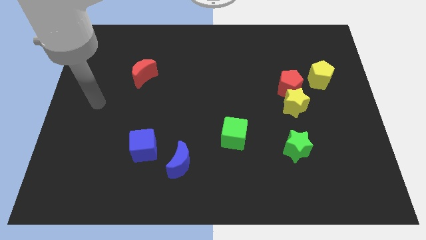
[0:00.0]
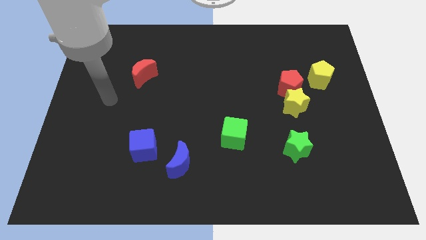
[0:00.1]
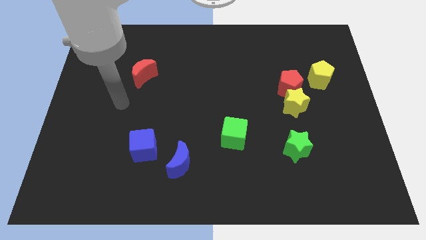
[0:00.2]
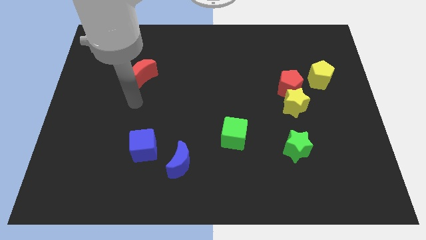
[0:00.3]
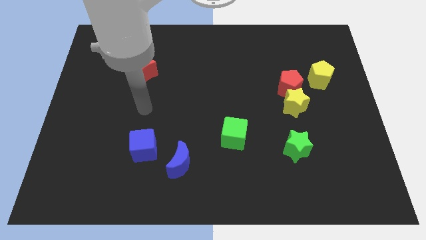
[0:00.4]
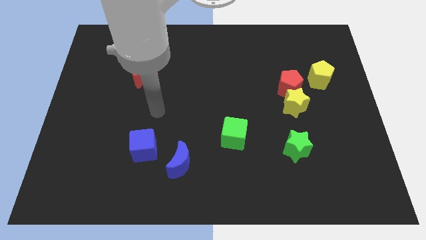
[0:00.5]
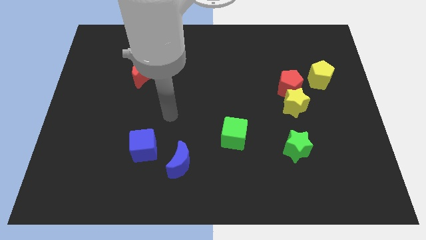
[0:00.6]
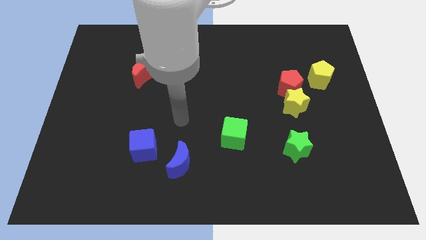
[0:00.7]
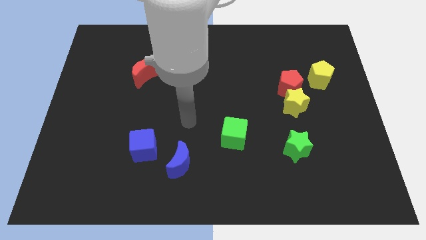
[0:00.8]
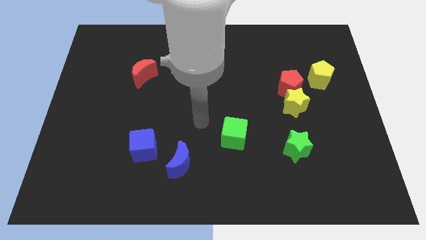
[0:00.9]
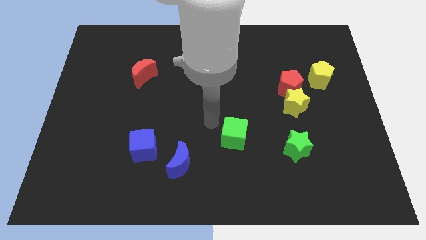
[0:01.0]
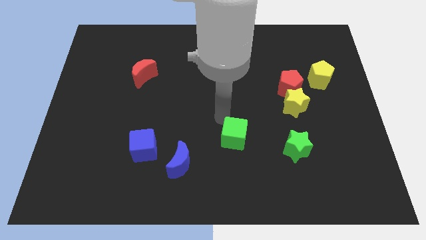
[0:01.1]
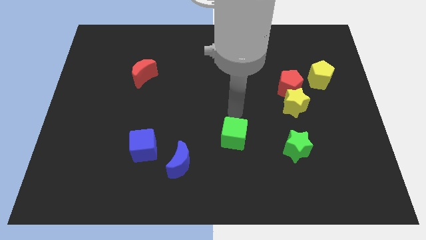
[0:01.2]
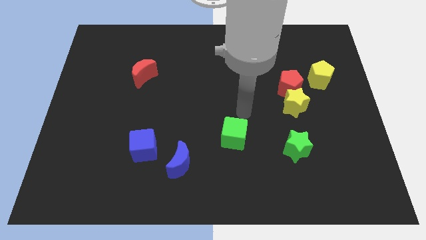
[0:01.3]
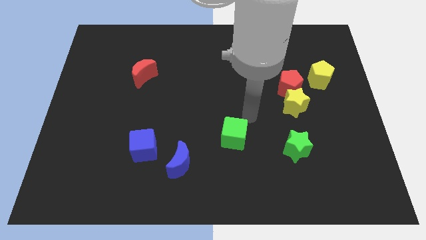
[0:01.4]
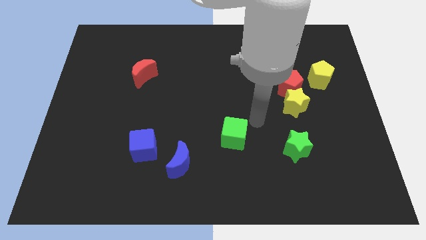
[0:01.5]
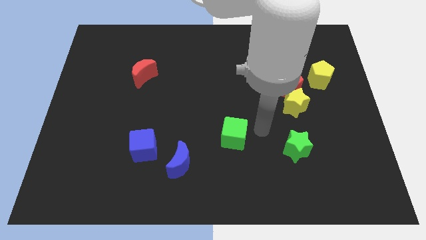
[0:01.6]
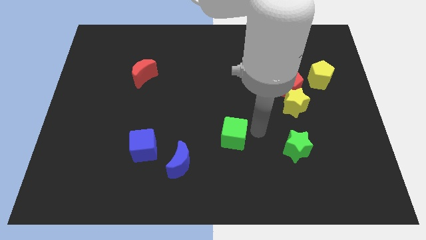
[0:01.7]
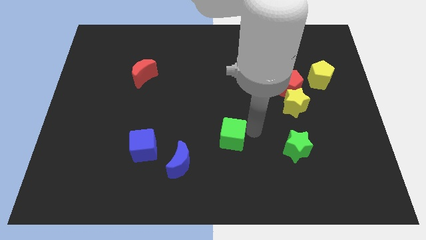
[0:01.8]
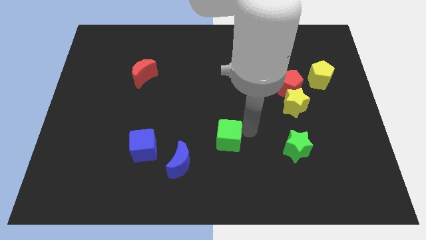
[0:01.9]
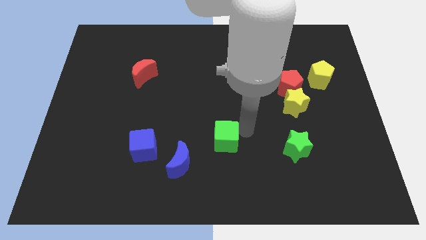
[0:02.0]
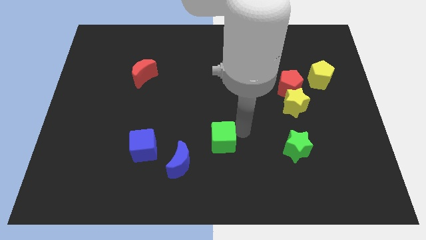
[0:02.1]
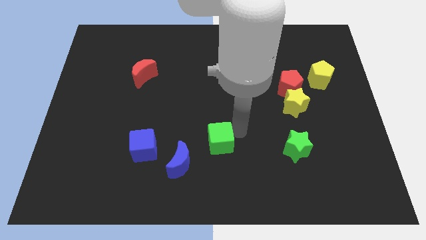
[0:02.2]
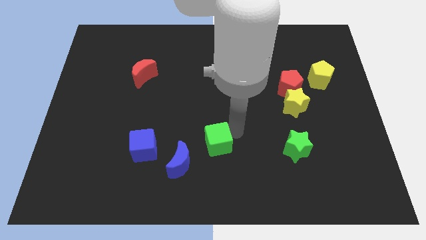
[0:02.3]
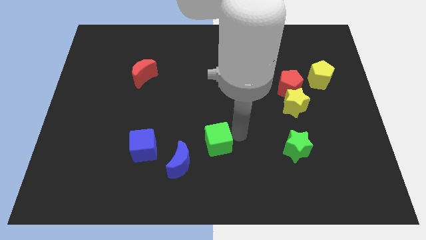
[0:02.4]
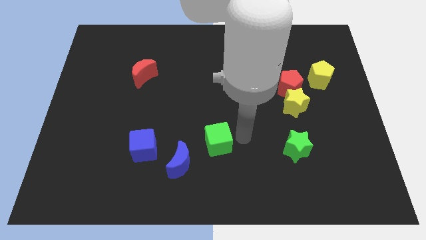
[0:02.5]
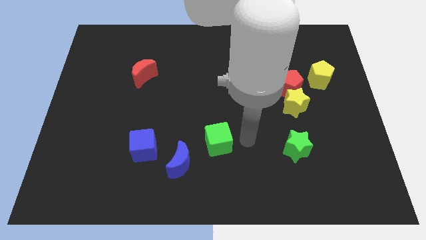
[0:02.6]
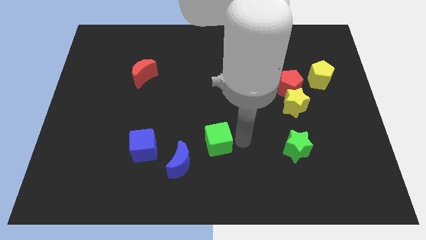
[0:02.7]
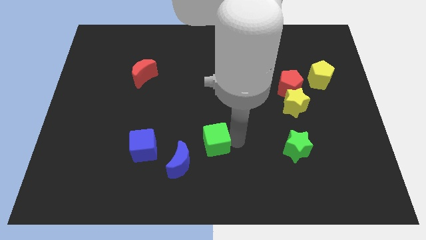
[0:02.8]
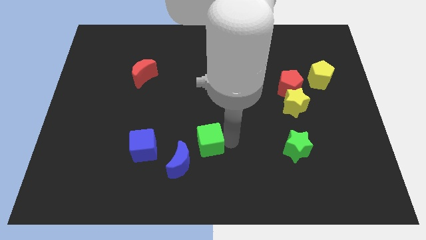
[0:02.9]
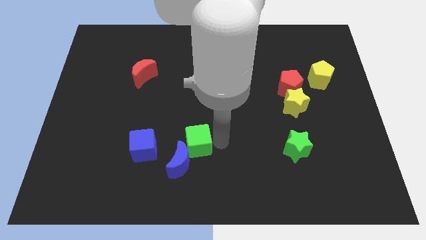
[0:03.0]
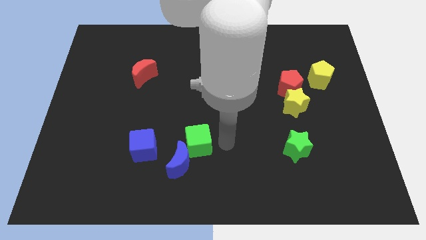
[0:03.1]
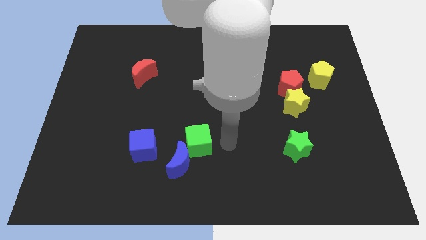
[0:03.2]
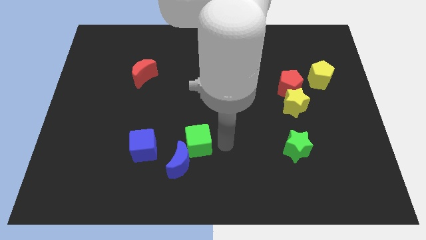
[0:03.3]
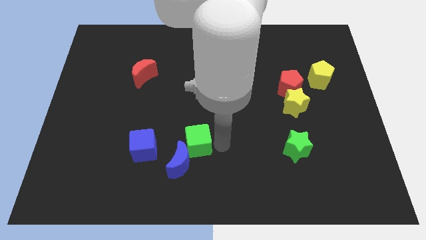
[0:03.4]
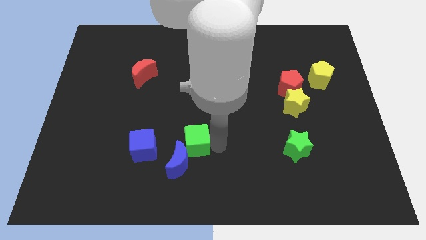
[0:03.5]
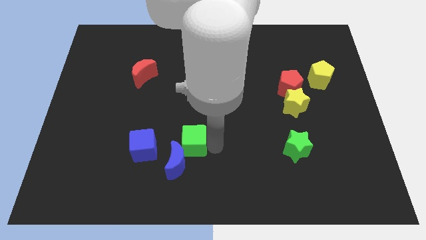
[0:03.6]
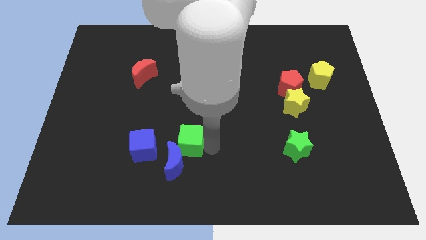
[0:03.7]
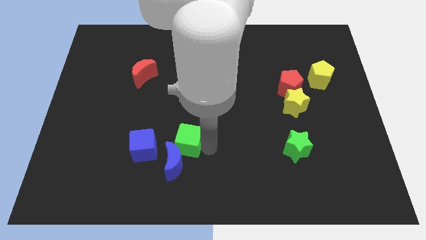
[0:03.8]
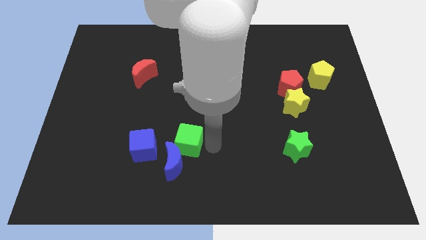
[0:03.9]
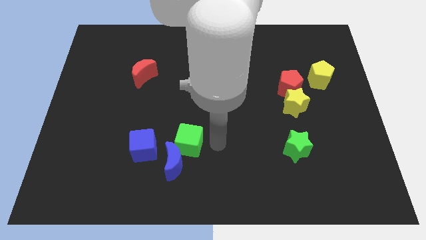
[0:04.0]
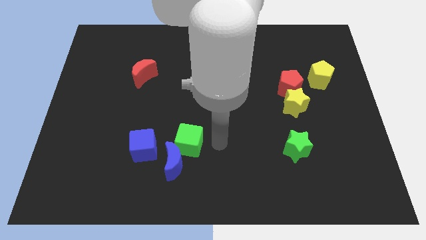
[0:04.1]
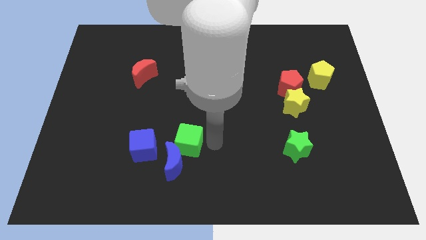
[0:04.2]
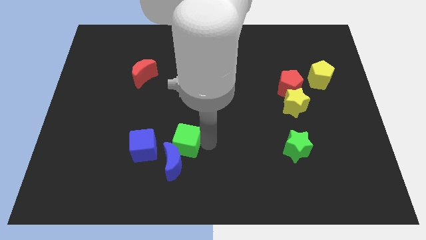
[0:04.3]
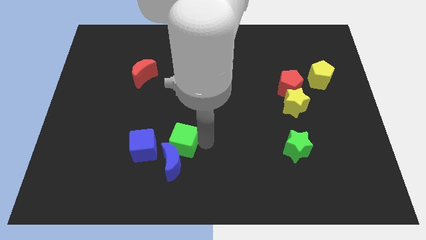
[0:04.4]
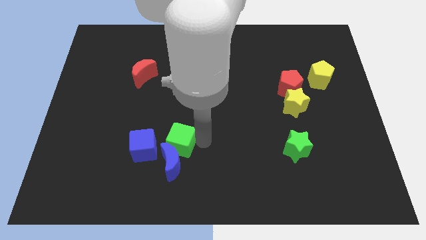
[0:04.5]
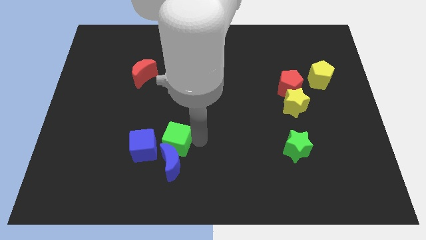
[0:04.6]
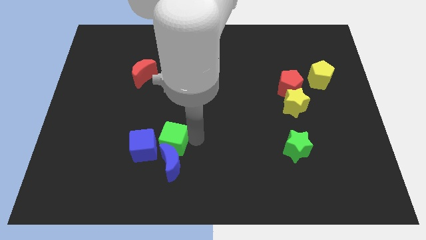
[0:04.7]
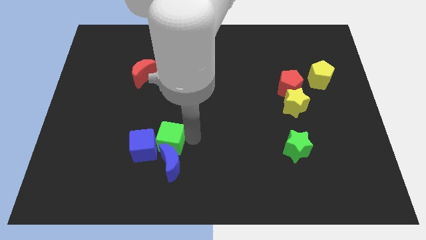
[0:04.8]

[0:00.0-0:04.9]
push the green cube towards the blue cube

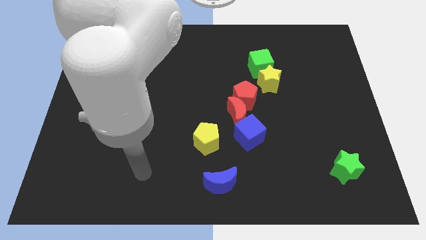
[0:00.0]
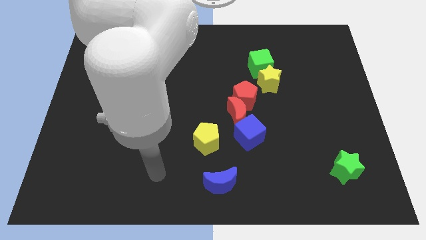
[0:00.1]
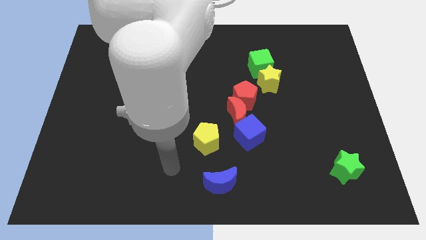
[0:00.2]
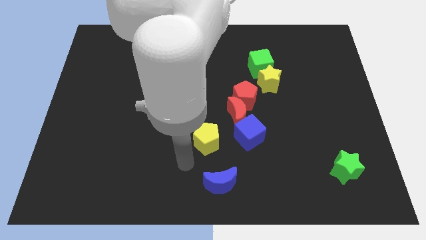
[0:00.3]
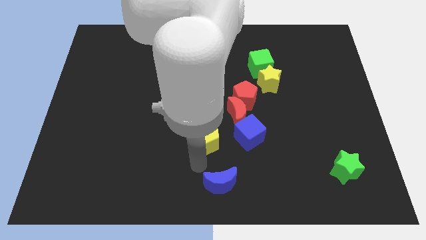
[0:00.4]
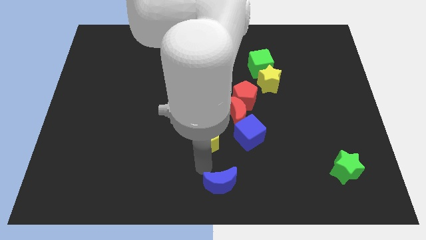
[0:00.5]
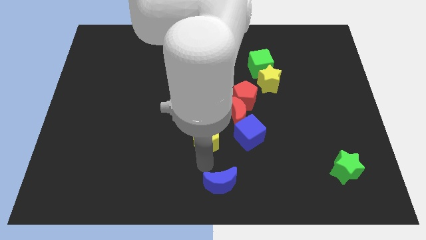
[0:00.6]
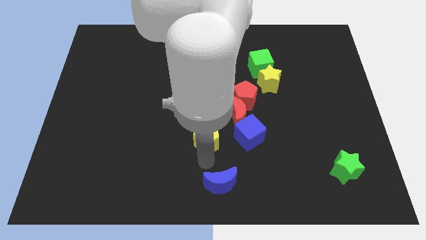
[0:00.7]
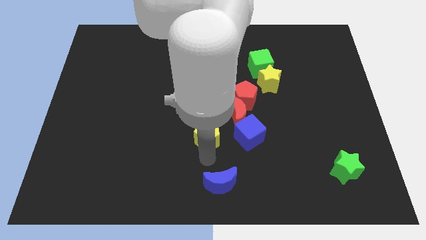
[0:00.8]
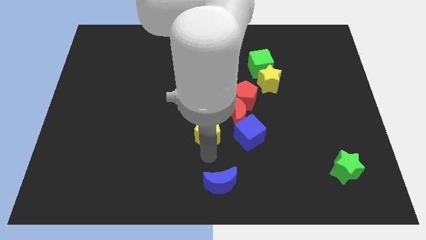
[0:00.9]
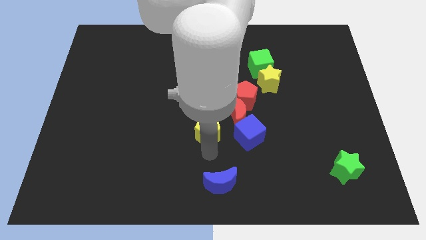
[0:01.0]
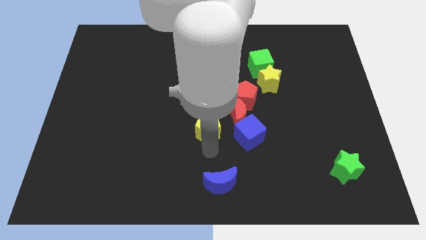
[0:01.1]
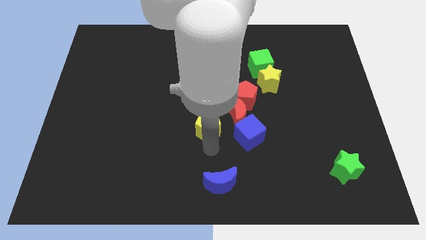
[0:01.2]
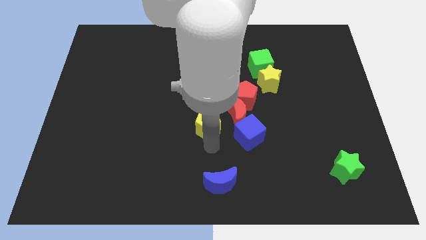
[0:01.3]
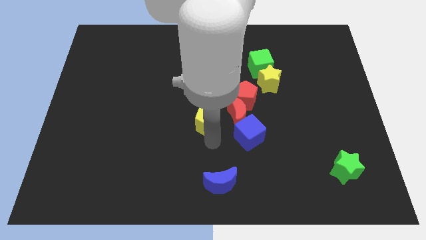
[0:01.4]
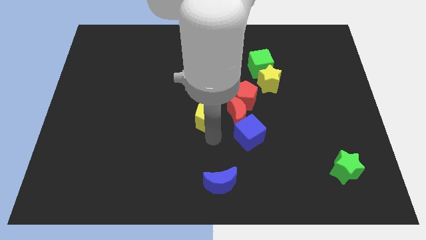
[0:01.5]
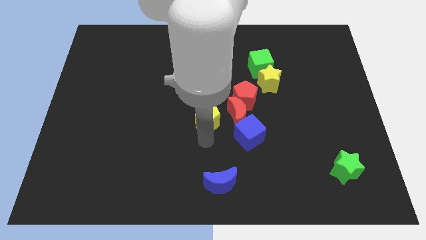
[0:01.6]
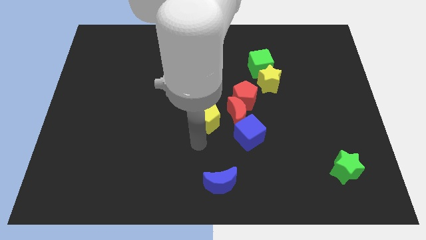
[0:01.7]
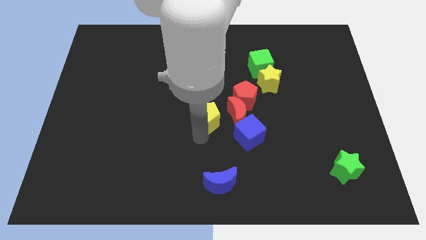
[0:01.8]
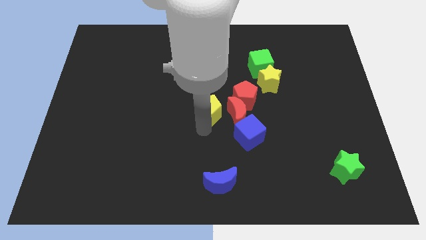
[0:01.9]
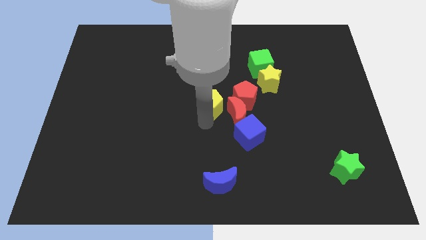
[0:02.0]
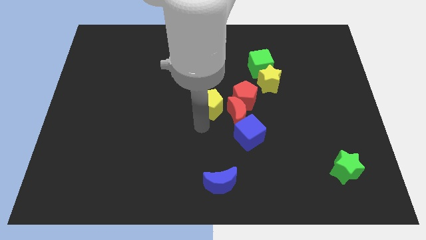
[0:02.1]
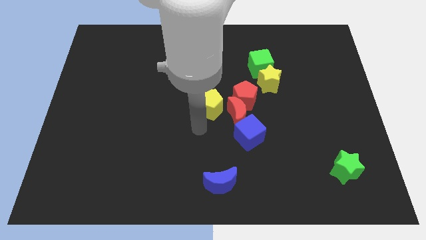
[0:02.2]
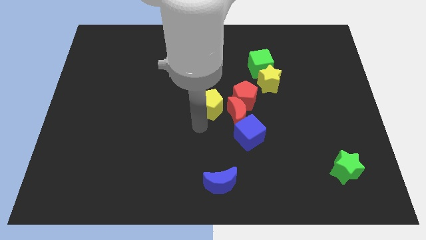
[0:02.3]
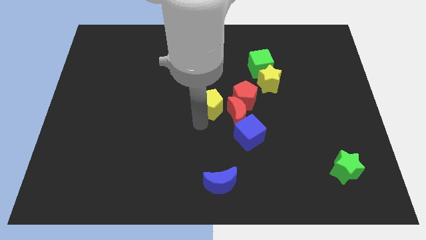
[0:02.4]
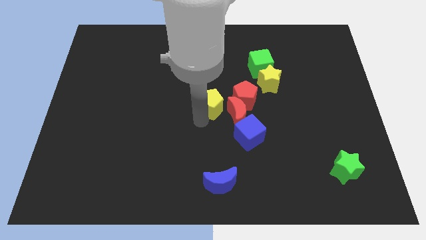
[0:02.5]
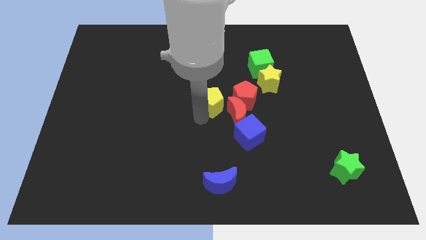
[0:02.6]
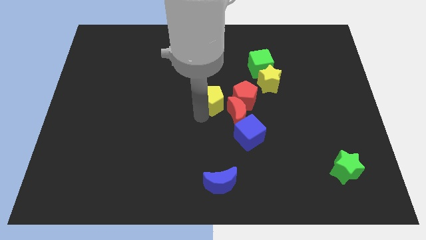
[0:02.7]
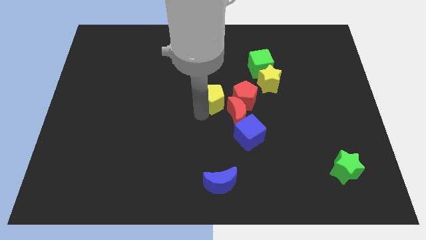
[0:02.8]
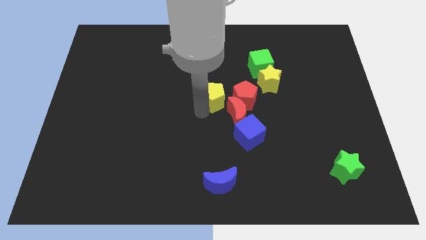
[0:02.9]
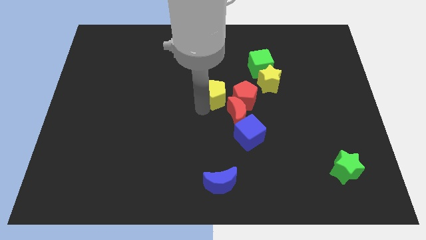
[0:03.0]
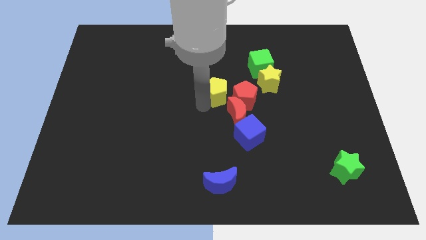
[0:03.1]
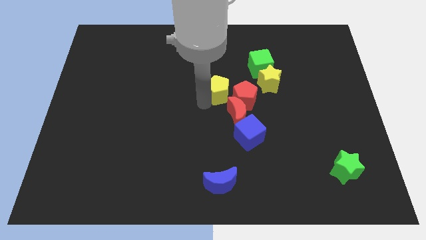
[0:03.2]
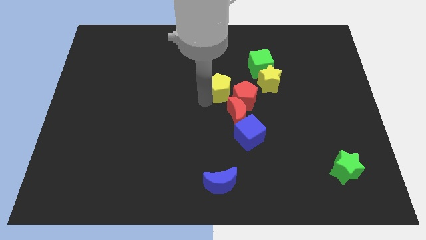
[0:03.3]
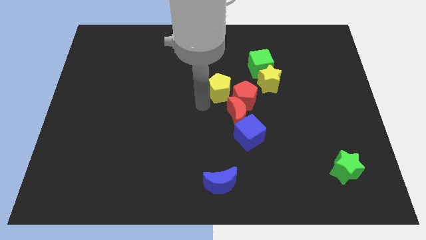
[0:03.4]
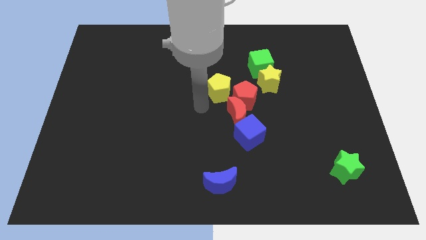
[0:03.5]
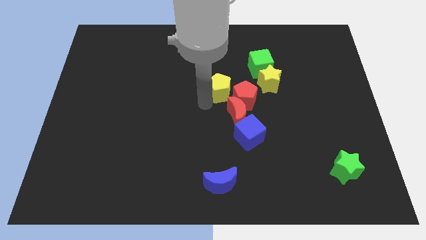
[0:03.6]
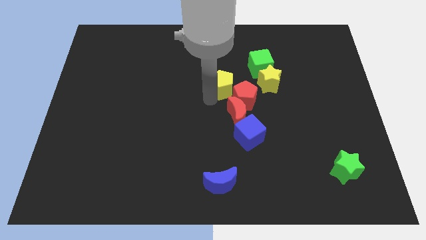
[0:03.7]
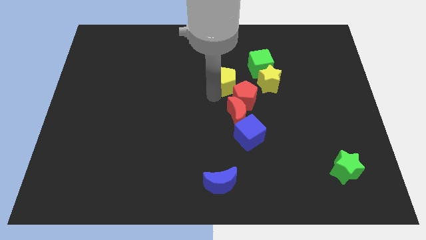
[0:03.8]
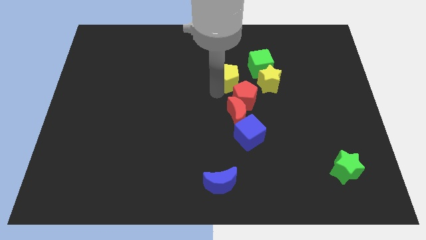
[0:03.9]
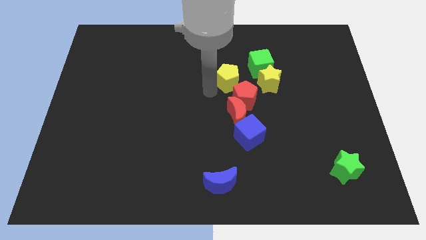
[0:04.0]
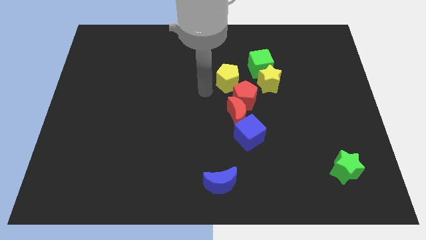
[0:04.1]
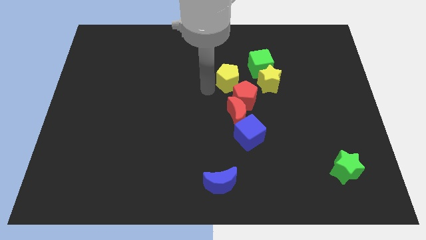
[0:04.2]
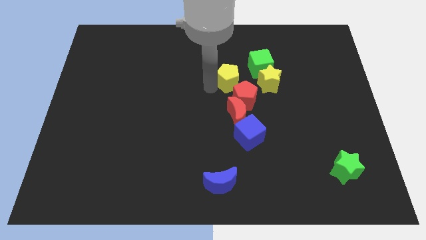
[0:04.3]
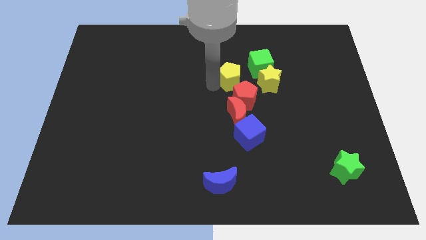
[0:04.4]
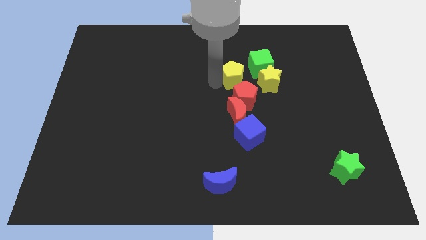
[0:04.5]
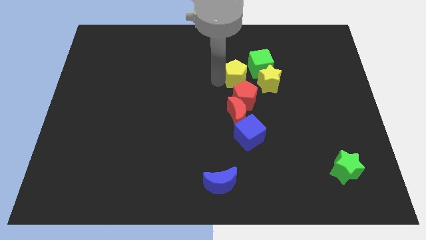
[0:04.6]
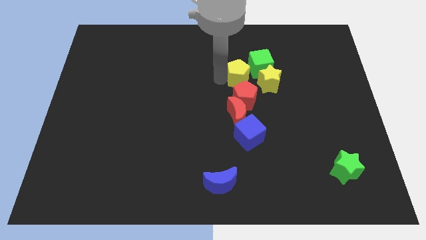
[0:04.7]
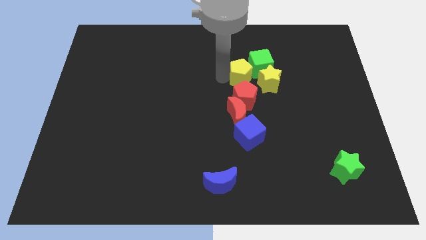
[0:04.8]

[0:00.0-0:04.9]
push the yellow pentagon towards the green cube
